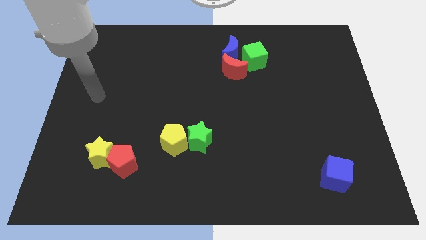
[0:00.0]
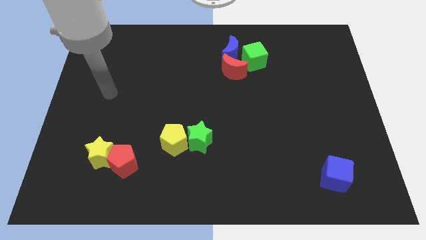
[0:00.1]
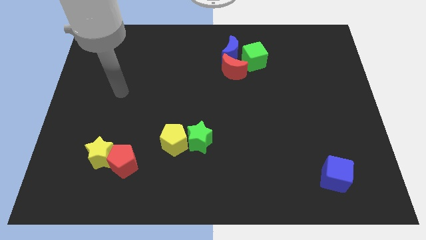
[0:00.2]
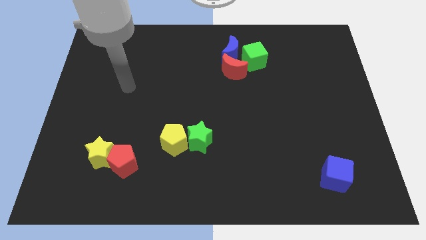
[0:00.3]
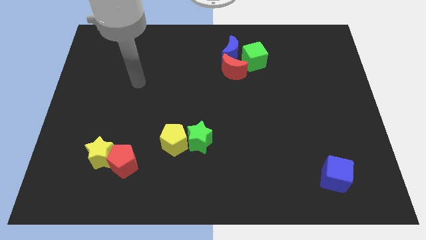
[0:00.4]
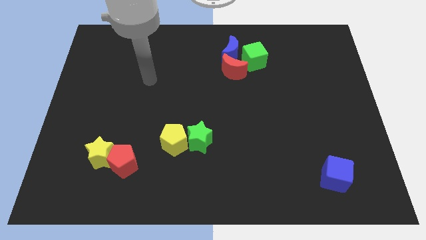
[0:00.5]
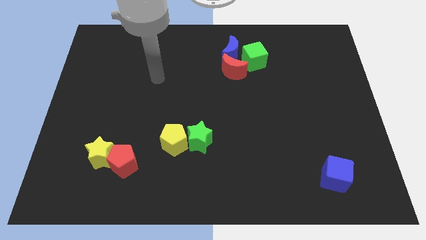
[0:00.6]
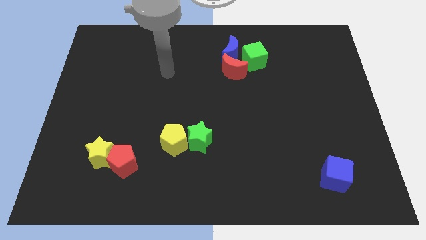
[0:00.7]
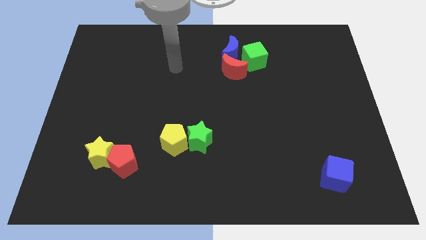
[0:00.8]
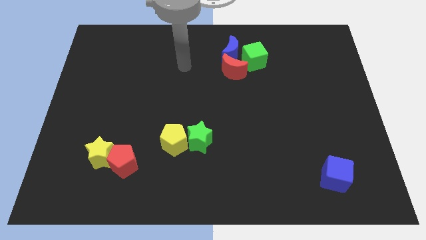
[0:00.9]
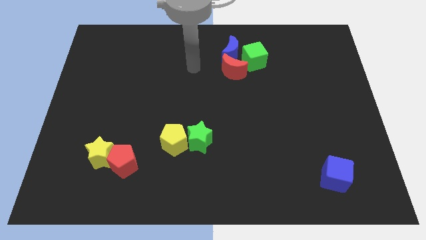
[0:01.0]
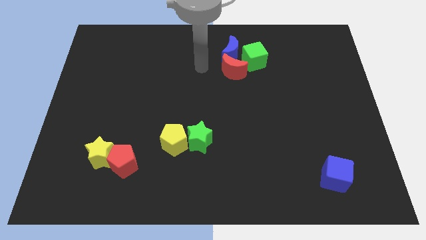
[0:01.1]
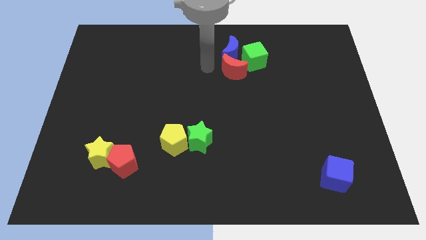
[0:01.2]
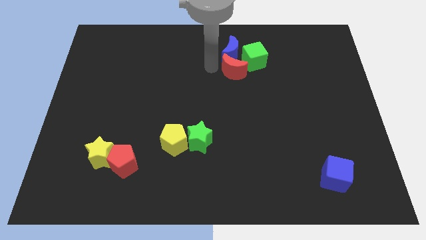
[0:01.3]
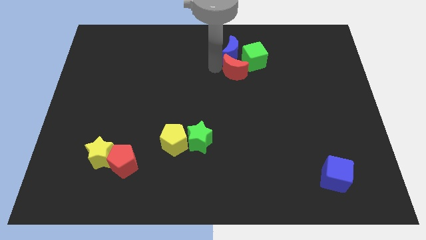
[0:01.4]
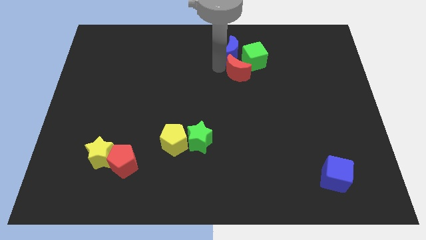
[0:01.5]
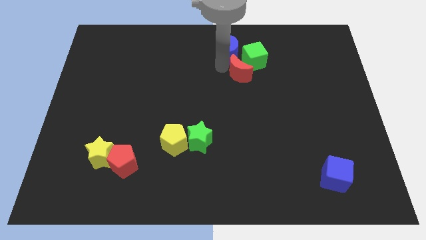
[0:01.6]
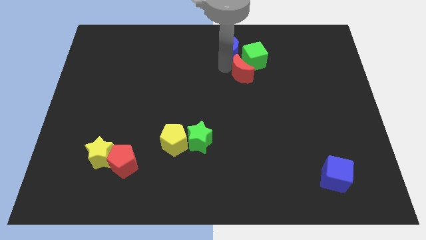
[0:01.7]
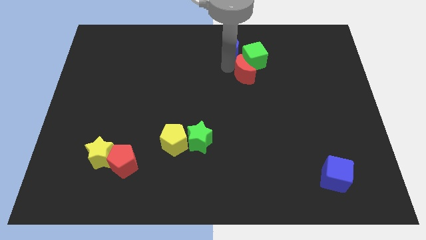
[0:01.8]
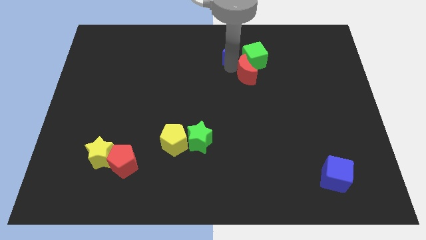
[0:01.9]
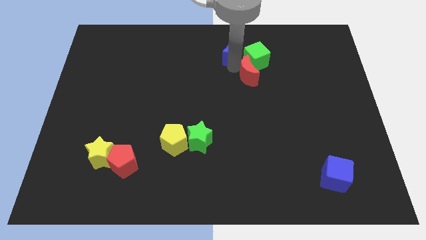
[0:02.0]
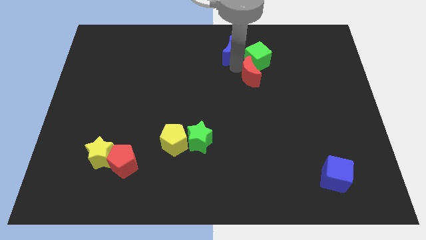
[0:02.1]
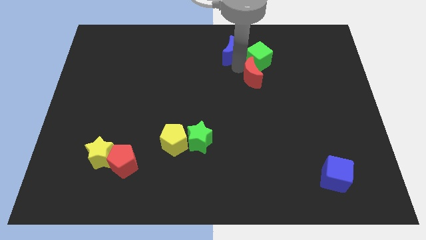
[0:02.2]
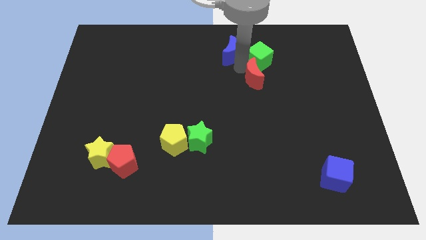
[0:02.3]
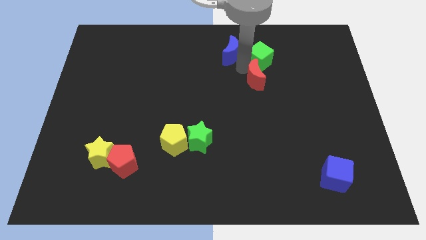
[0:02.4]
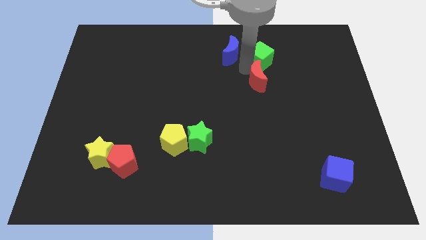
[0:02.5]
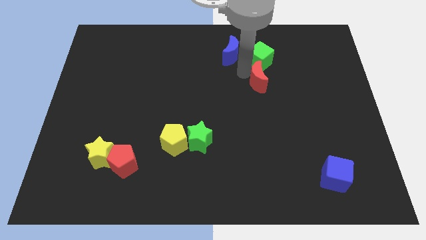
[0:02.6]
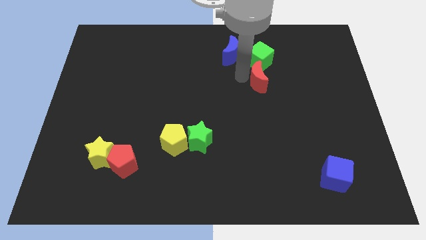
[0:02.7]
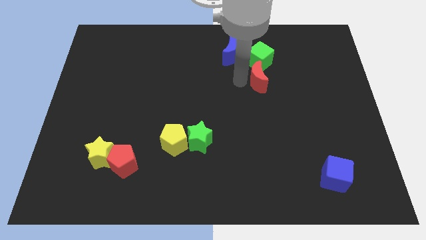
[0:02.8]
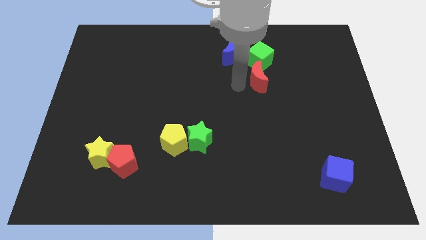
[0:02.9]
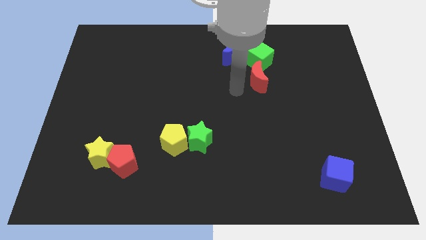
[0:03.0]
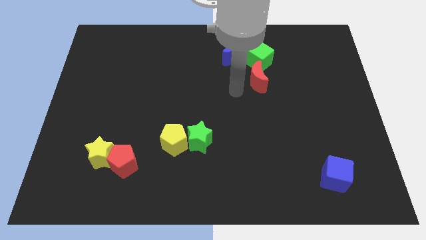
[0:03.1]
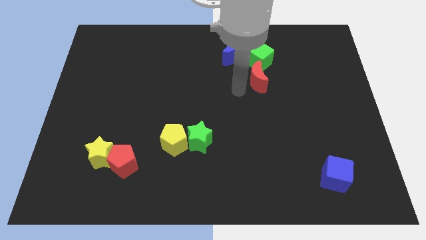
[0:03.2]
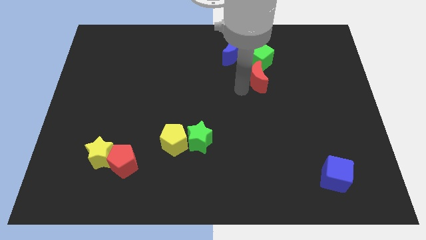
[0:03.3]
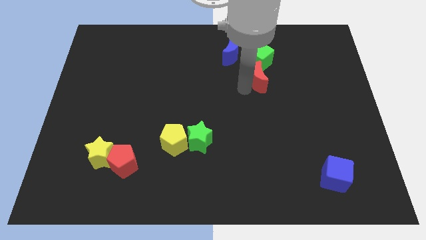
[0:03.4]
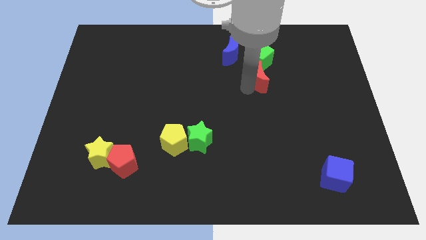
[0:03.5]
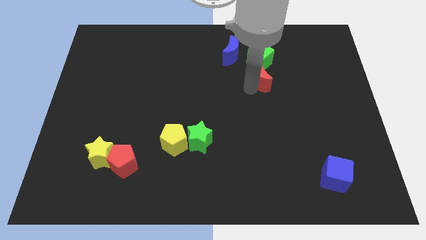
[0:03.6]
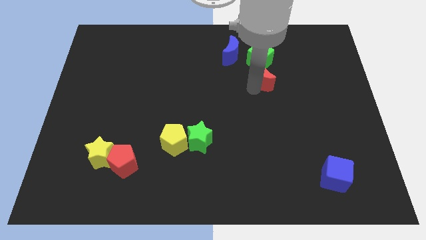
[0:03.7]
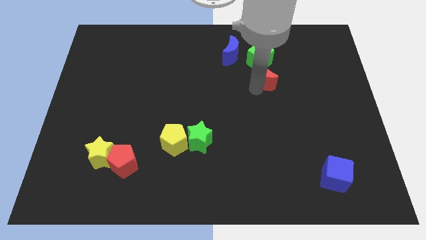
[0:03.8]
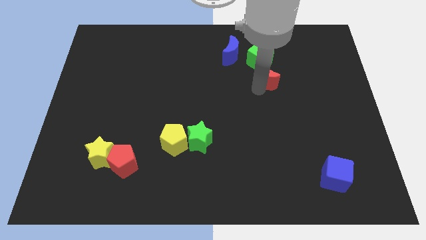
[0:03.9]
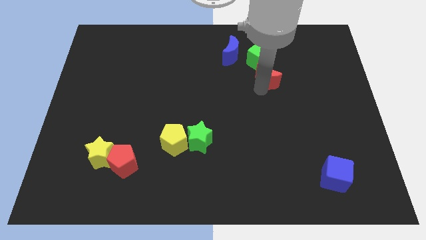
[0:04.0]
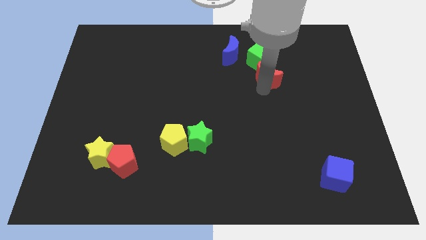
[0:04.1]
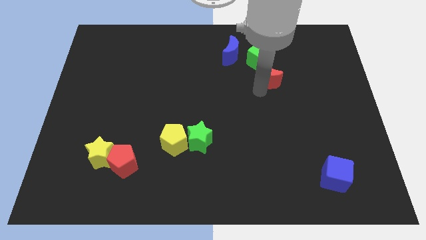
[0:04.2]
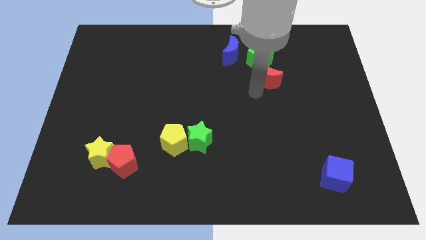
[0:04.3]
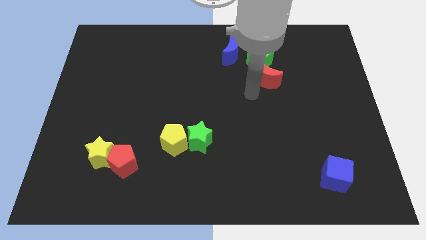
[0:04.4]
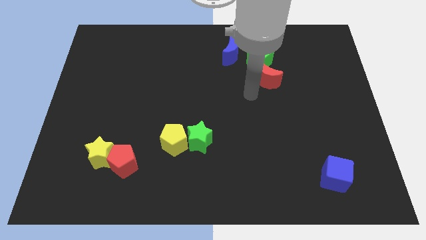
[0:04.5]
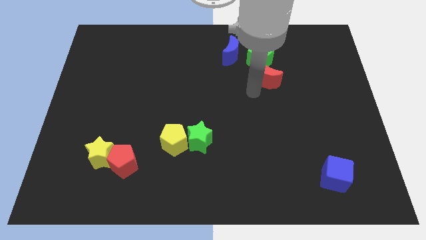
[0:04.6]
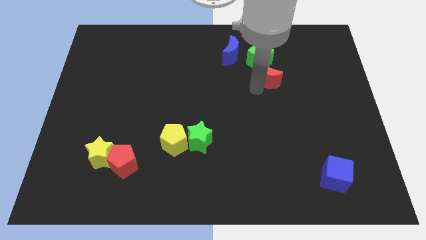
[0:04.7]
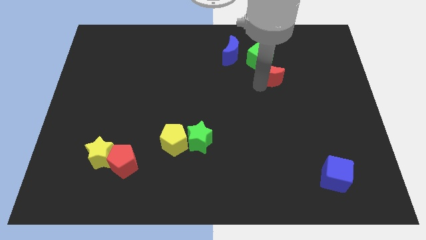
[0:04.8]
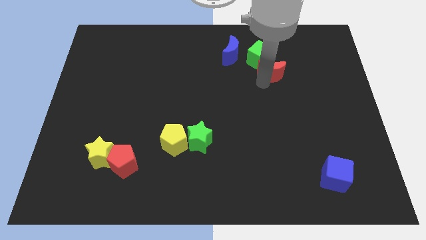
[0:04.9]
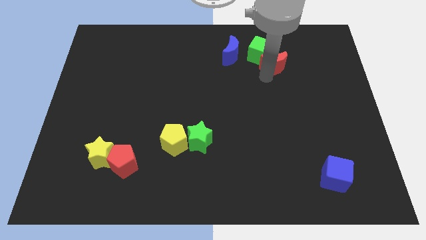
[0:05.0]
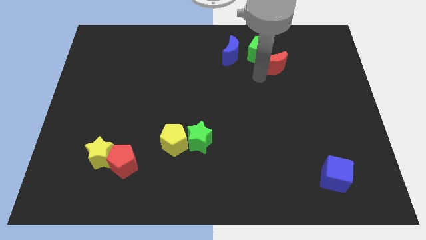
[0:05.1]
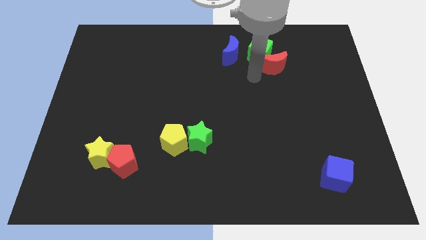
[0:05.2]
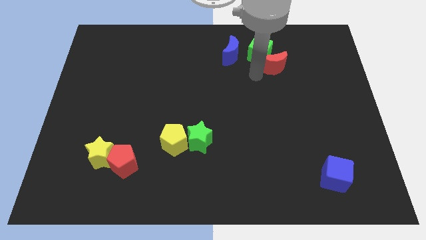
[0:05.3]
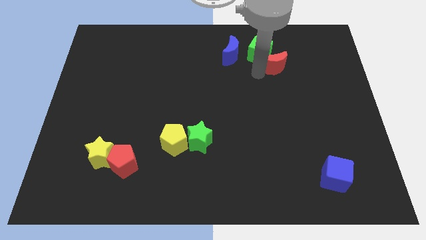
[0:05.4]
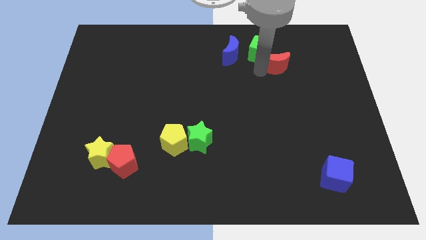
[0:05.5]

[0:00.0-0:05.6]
put the red moon to the right side of the green cube

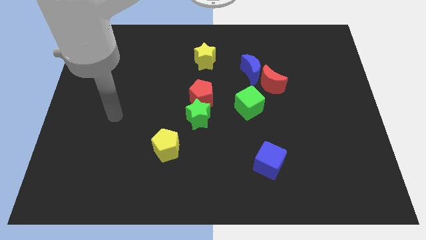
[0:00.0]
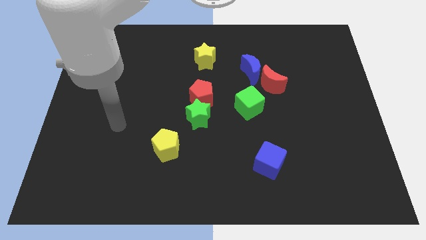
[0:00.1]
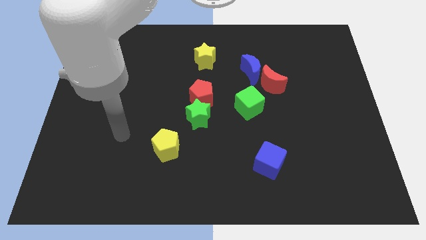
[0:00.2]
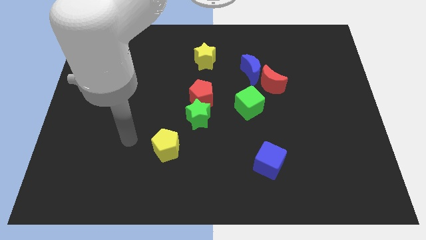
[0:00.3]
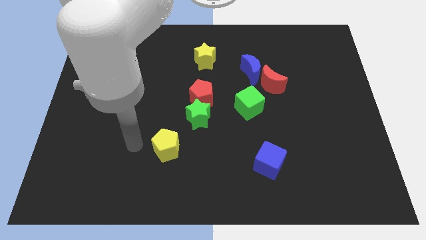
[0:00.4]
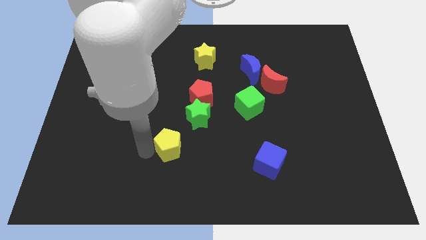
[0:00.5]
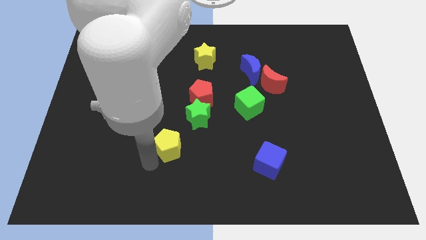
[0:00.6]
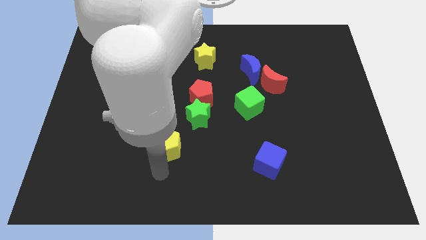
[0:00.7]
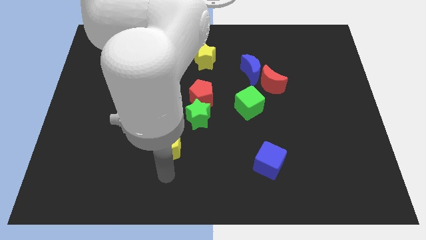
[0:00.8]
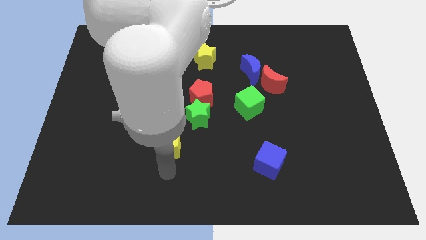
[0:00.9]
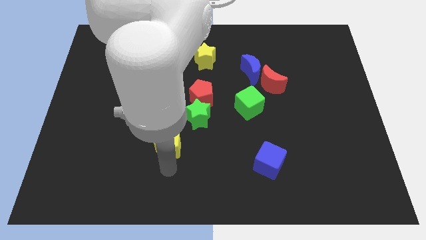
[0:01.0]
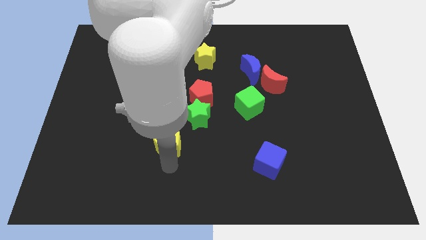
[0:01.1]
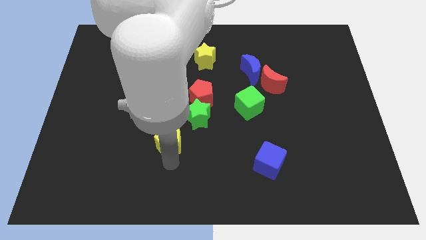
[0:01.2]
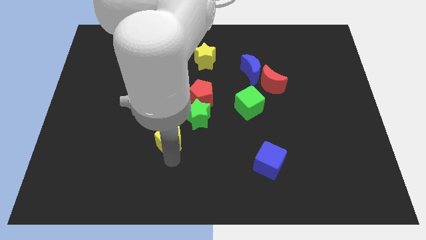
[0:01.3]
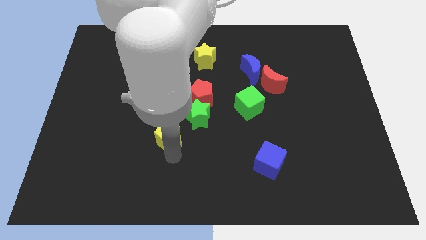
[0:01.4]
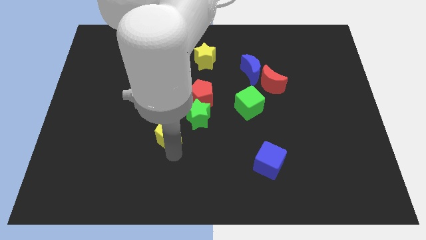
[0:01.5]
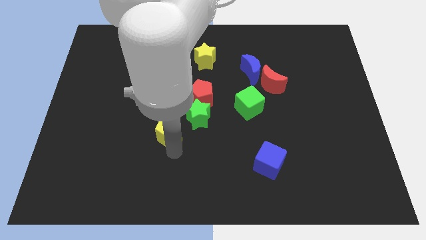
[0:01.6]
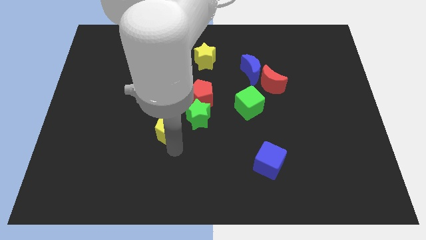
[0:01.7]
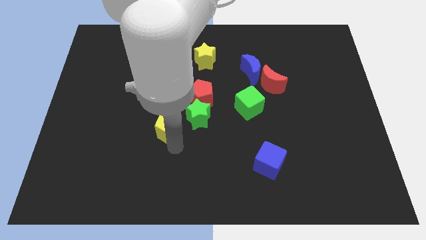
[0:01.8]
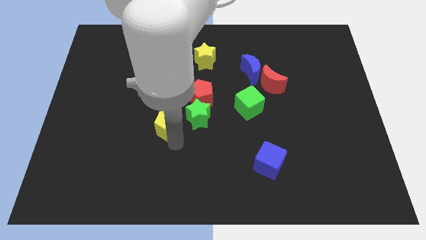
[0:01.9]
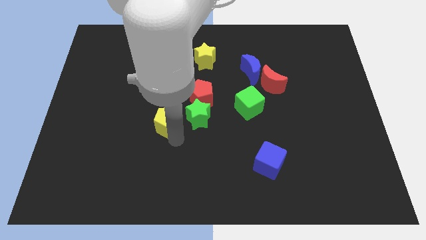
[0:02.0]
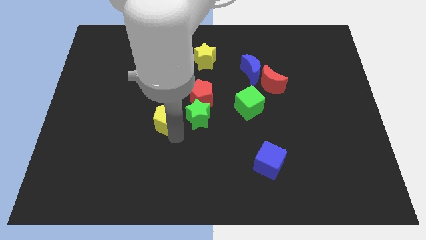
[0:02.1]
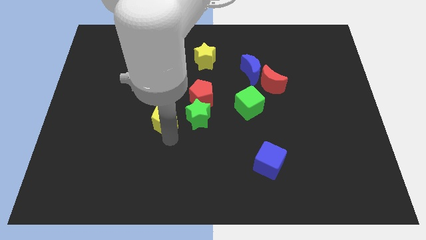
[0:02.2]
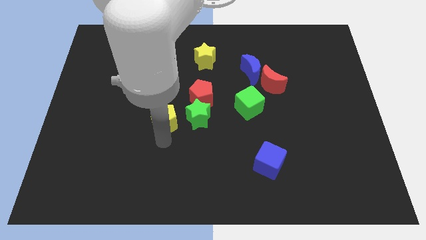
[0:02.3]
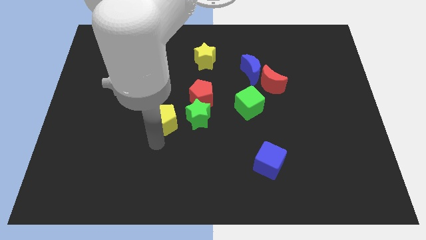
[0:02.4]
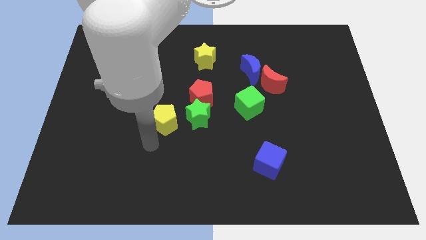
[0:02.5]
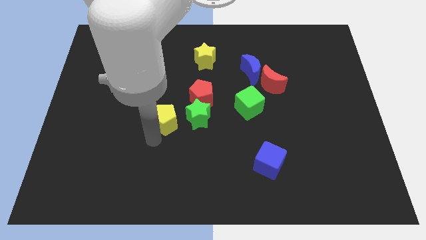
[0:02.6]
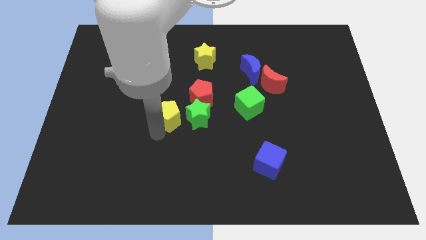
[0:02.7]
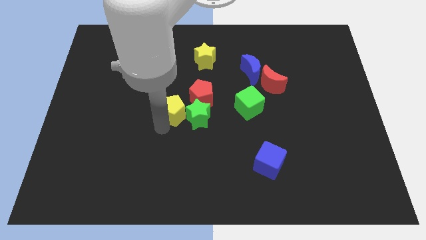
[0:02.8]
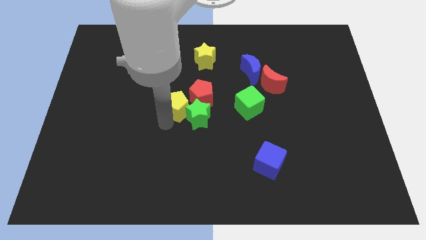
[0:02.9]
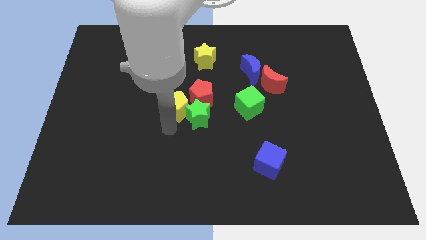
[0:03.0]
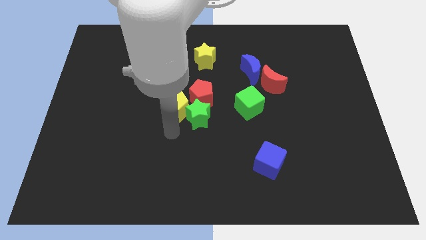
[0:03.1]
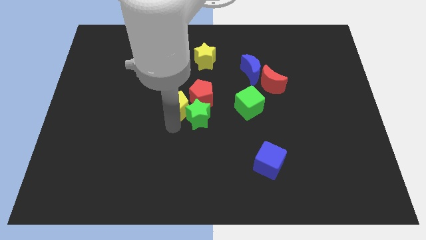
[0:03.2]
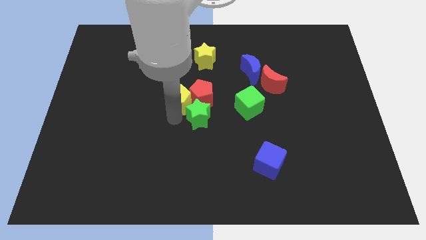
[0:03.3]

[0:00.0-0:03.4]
put the yellow pentagon to the top left side of the red pentagon
